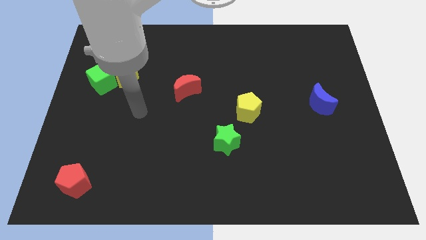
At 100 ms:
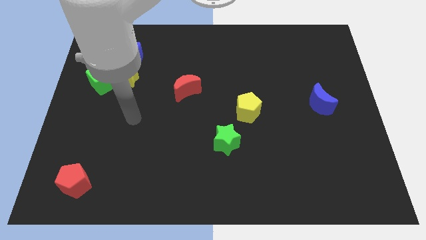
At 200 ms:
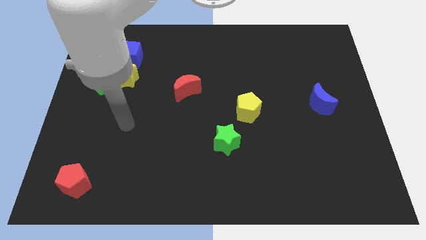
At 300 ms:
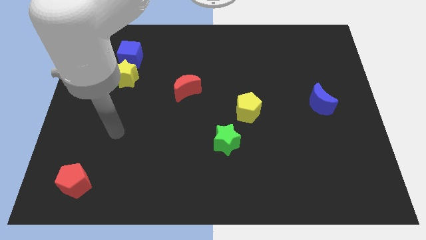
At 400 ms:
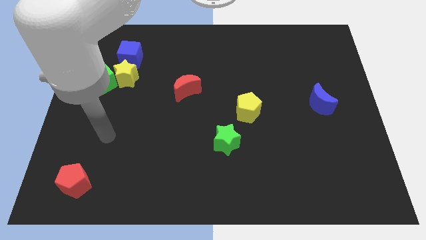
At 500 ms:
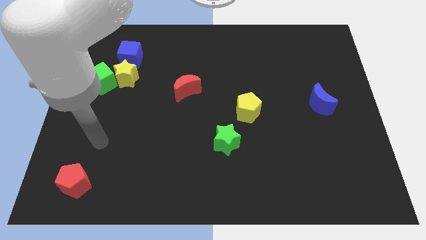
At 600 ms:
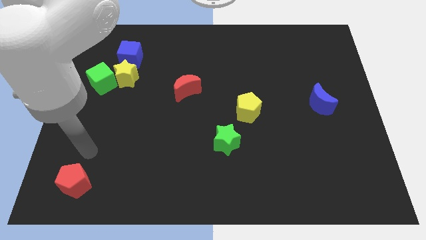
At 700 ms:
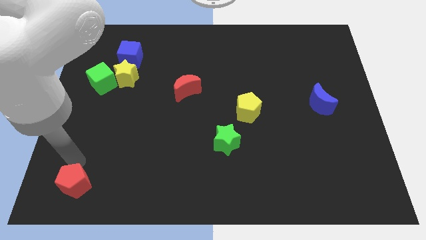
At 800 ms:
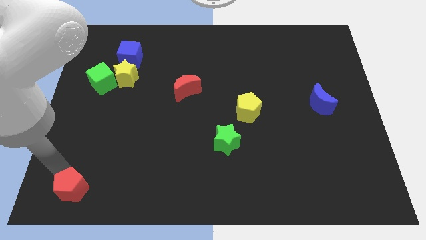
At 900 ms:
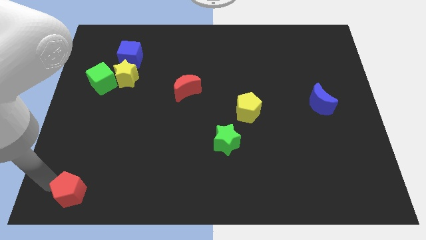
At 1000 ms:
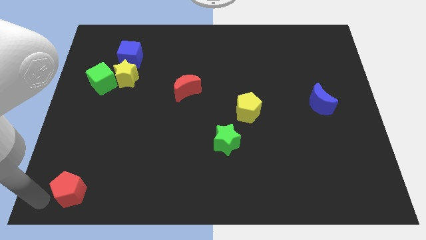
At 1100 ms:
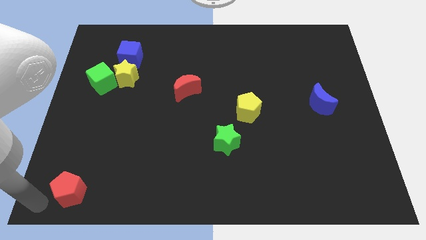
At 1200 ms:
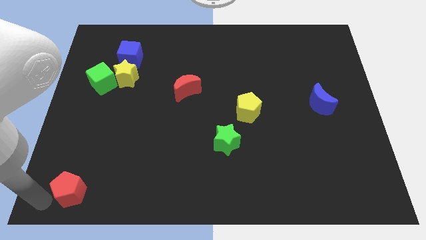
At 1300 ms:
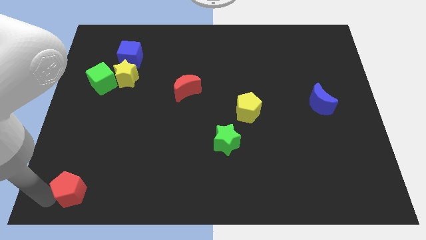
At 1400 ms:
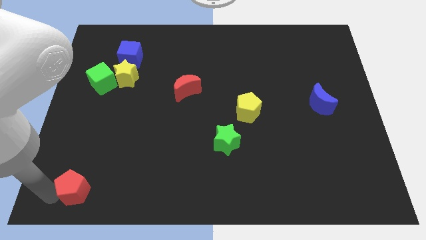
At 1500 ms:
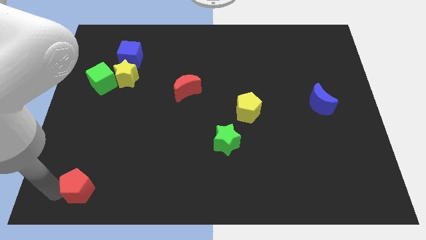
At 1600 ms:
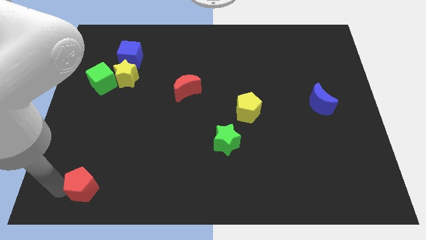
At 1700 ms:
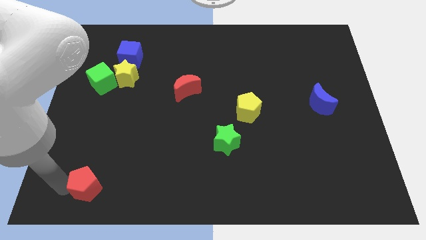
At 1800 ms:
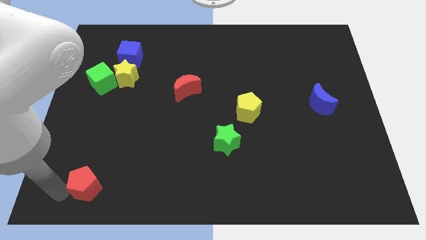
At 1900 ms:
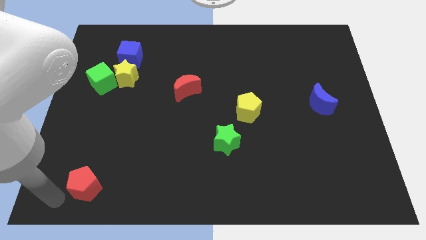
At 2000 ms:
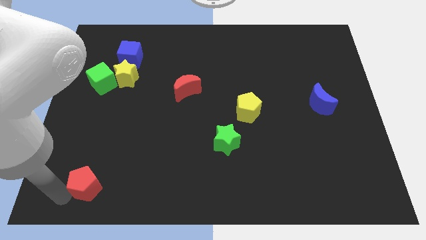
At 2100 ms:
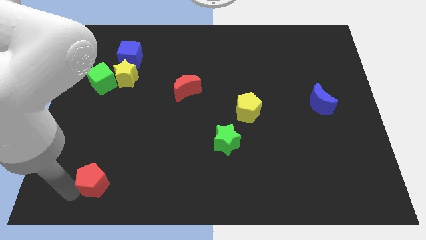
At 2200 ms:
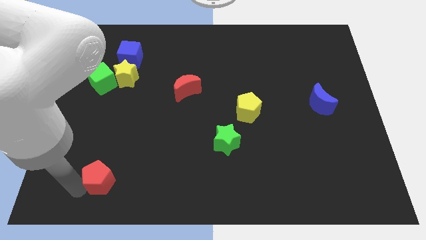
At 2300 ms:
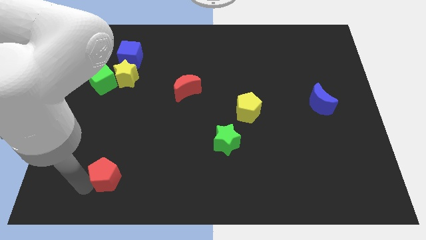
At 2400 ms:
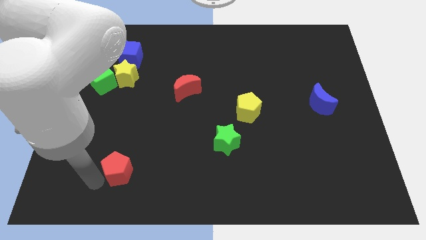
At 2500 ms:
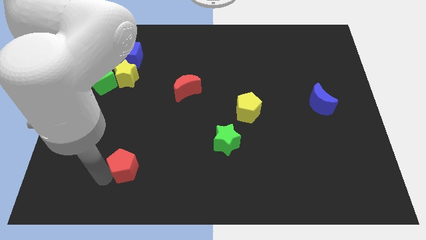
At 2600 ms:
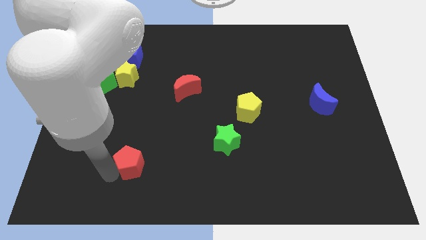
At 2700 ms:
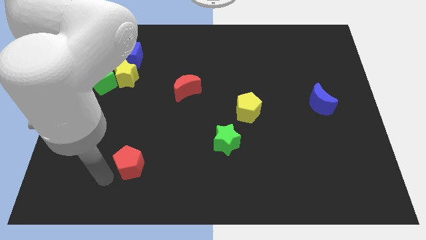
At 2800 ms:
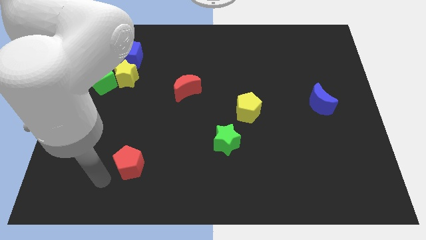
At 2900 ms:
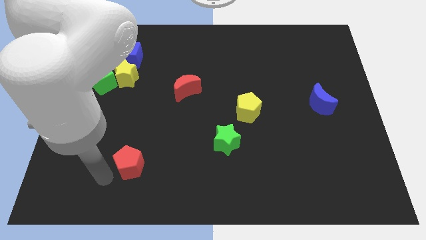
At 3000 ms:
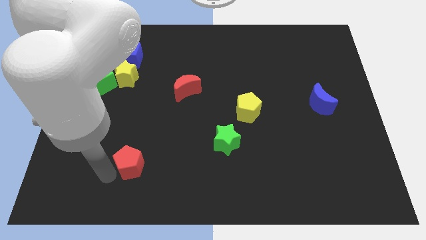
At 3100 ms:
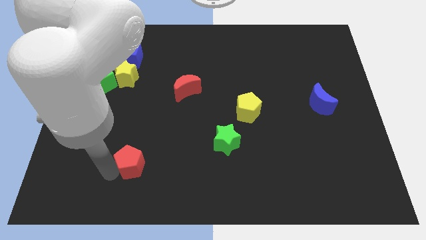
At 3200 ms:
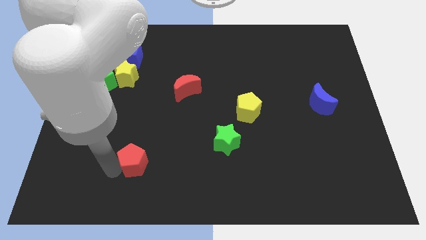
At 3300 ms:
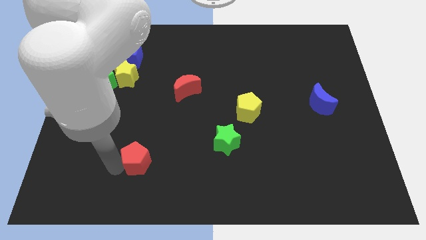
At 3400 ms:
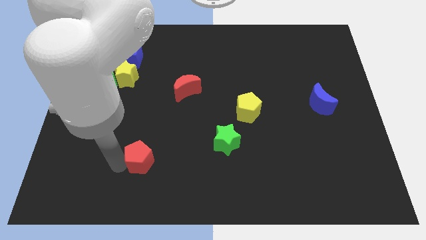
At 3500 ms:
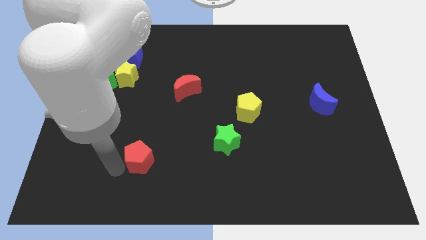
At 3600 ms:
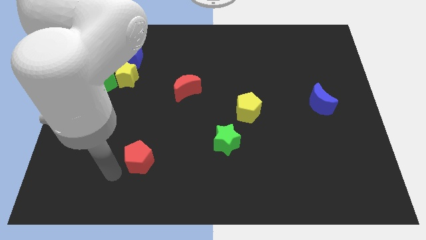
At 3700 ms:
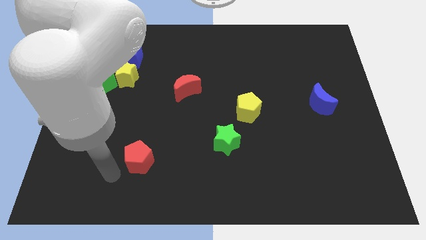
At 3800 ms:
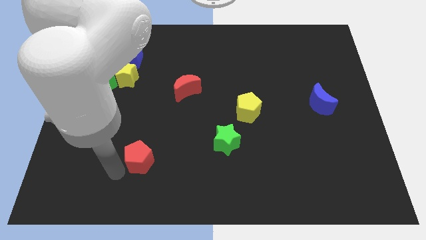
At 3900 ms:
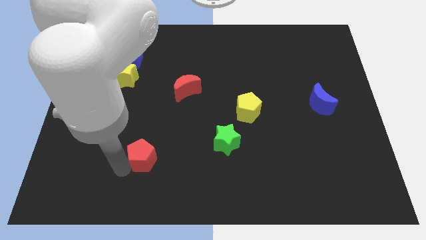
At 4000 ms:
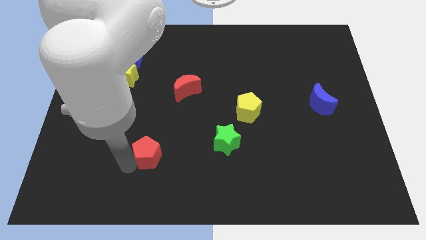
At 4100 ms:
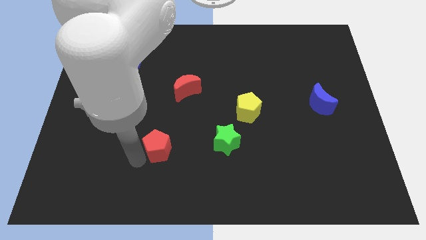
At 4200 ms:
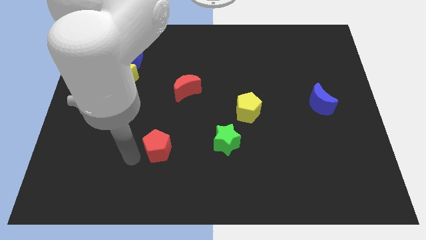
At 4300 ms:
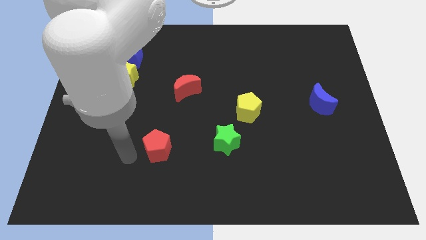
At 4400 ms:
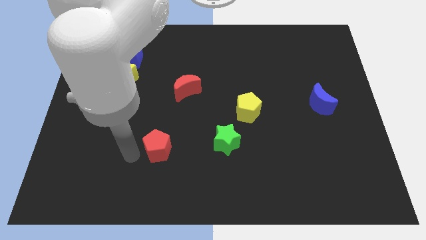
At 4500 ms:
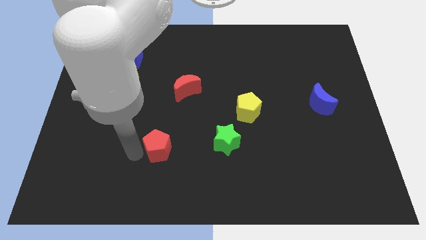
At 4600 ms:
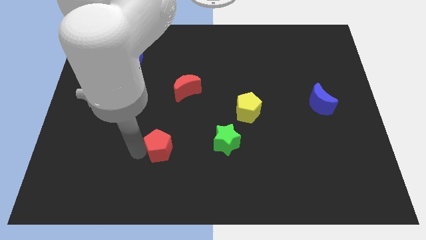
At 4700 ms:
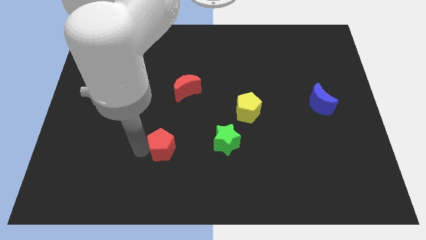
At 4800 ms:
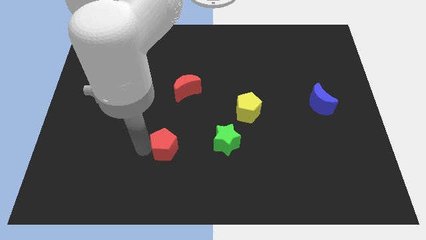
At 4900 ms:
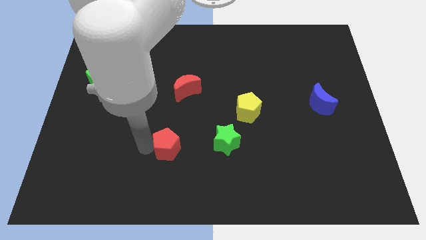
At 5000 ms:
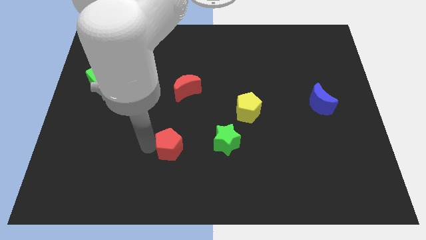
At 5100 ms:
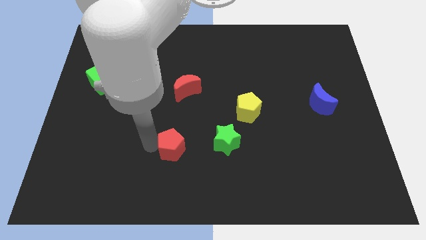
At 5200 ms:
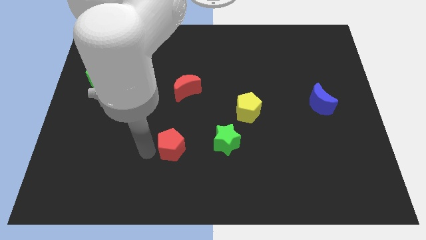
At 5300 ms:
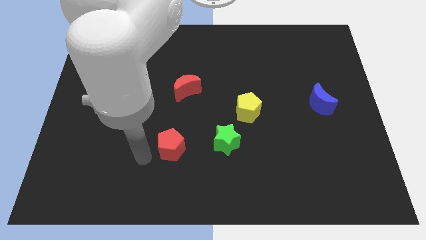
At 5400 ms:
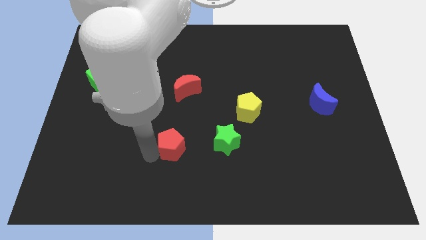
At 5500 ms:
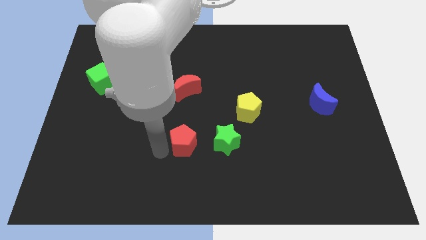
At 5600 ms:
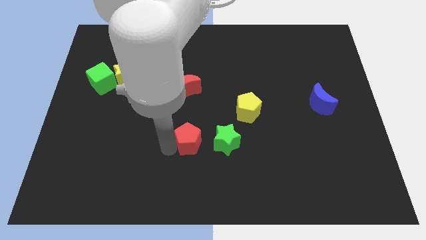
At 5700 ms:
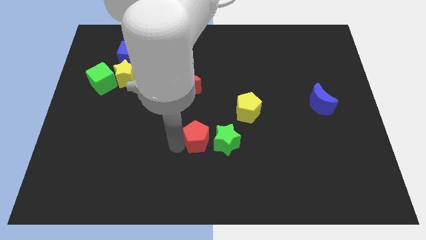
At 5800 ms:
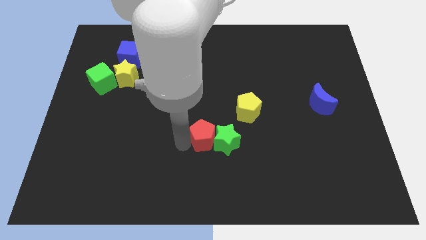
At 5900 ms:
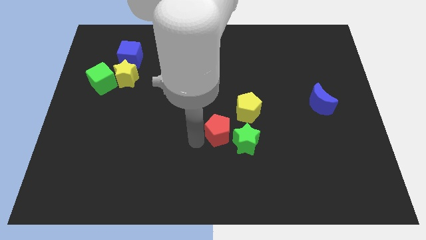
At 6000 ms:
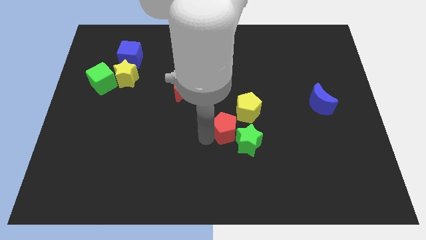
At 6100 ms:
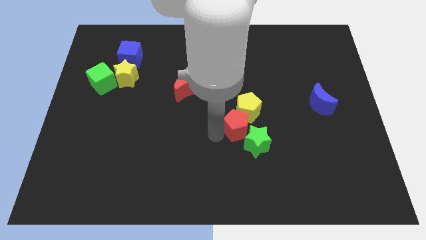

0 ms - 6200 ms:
move the red pentagon next to the yellow pentagon

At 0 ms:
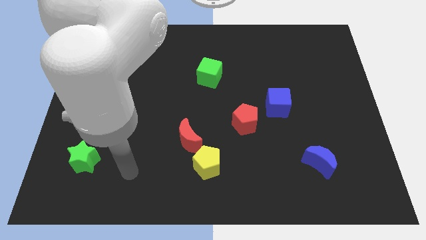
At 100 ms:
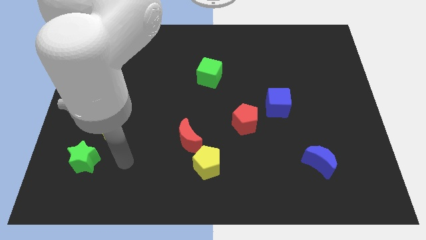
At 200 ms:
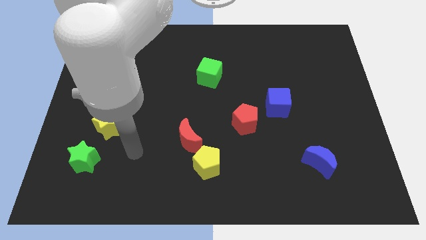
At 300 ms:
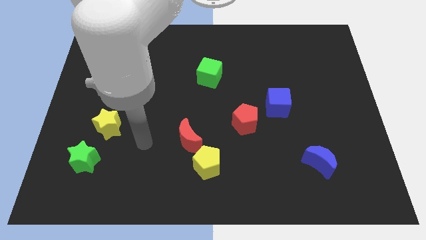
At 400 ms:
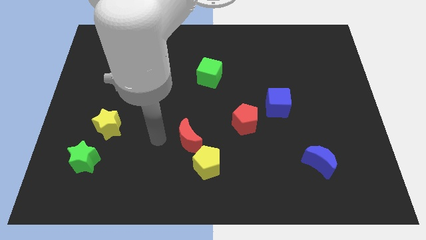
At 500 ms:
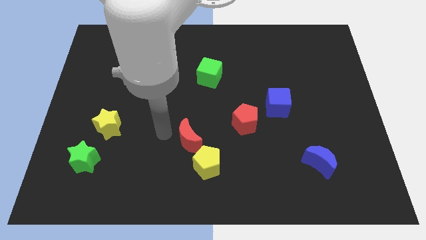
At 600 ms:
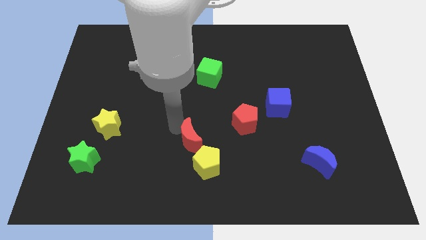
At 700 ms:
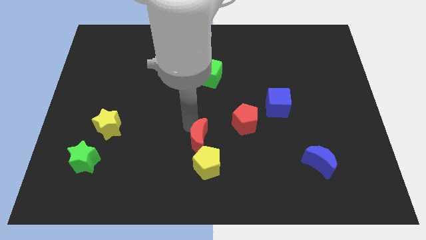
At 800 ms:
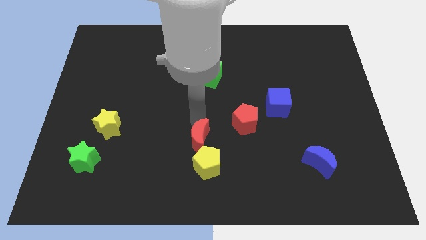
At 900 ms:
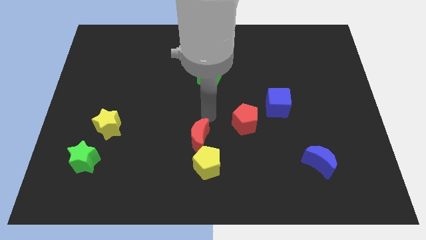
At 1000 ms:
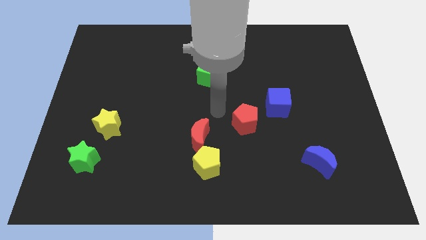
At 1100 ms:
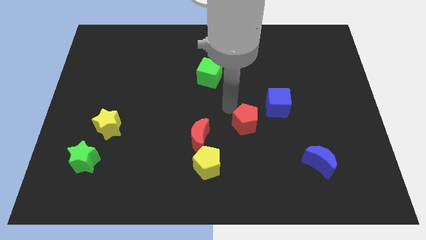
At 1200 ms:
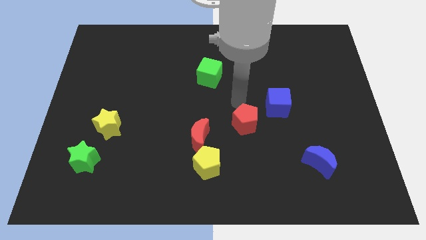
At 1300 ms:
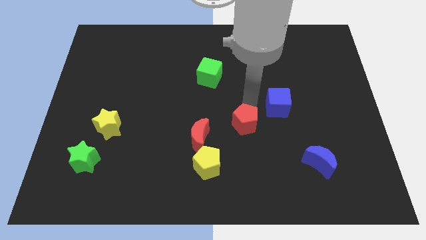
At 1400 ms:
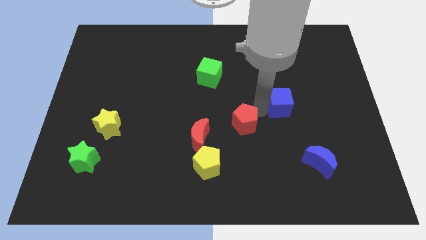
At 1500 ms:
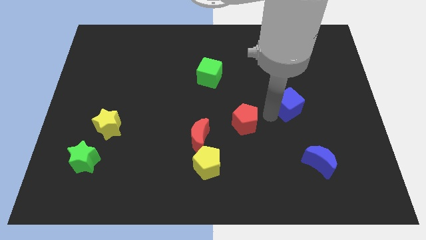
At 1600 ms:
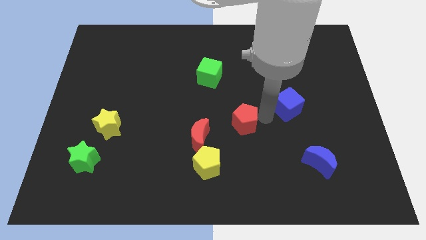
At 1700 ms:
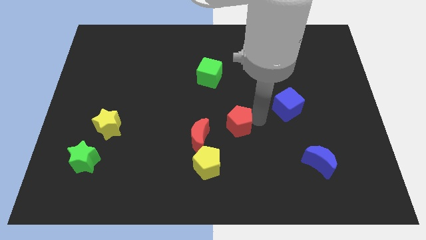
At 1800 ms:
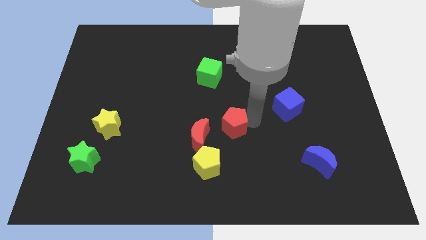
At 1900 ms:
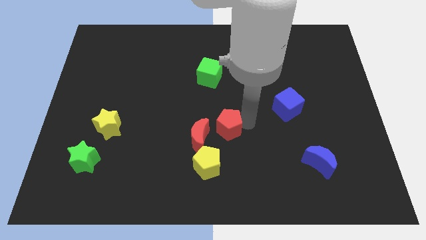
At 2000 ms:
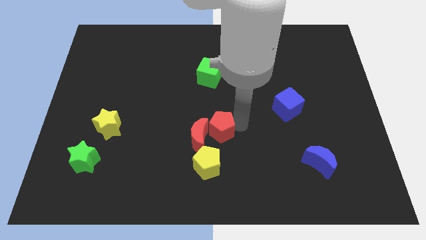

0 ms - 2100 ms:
move the red pentagon close to the red moon

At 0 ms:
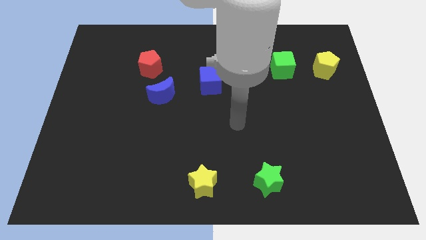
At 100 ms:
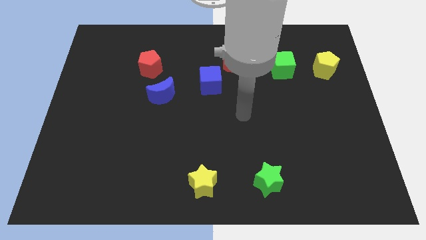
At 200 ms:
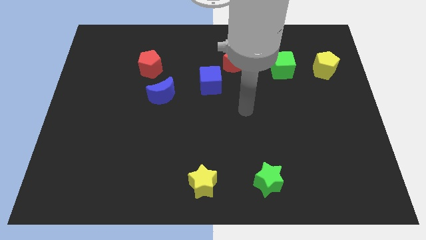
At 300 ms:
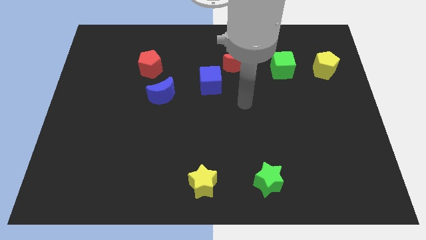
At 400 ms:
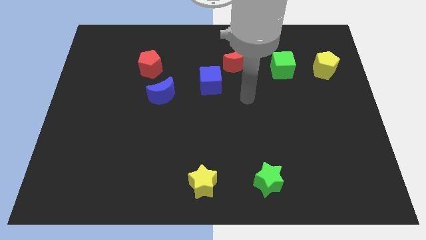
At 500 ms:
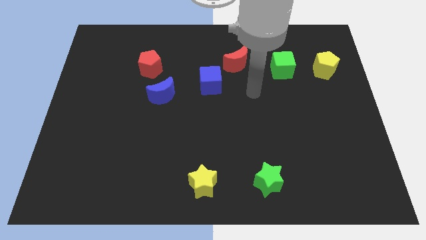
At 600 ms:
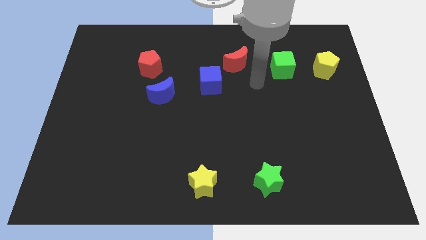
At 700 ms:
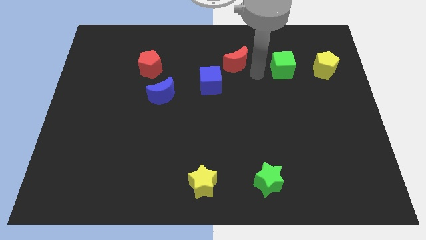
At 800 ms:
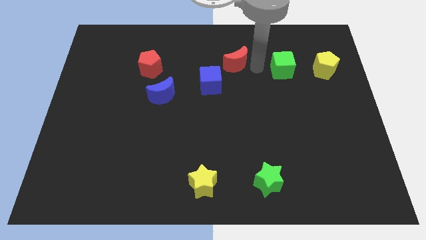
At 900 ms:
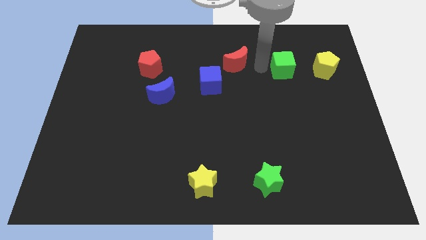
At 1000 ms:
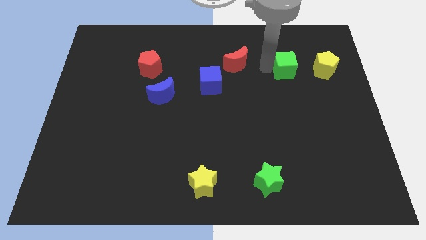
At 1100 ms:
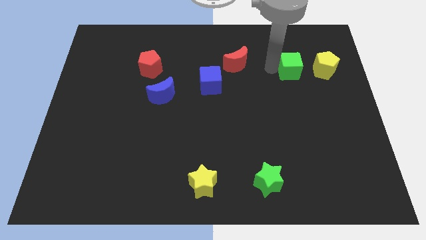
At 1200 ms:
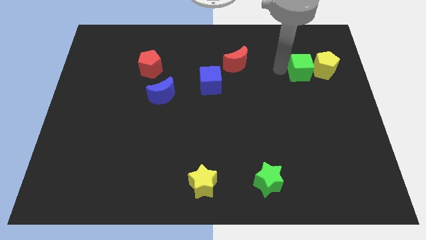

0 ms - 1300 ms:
push the green cube to the yellow pentagon
